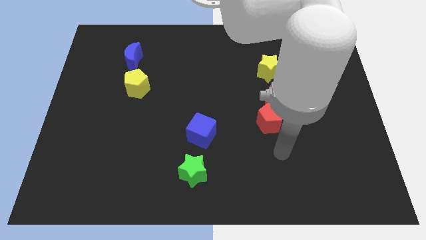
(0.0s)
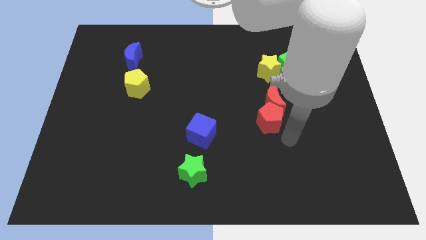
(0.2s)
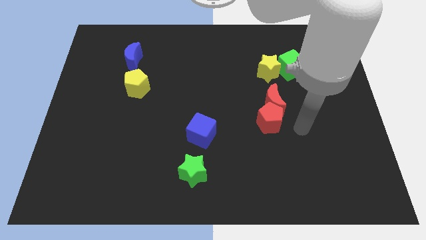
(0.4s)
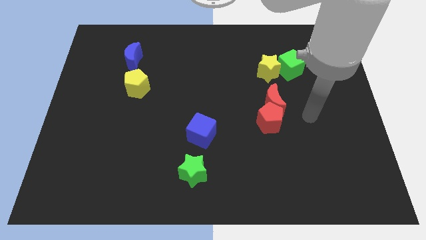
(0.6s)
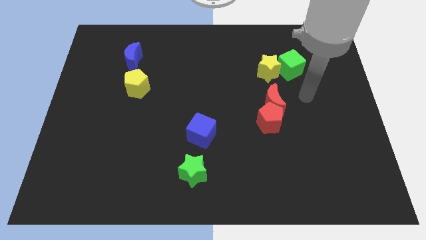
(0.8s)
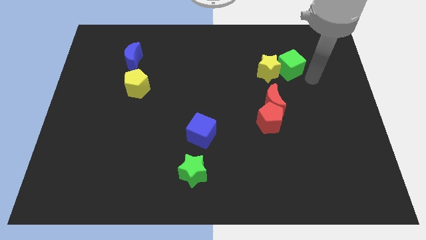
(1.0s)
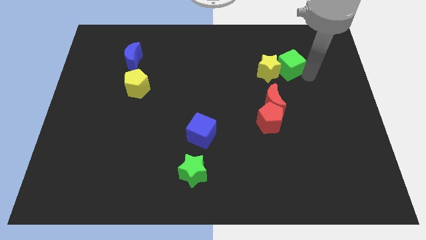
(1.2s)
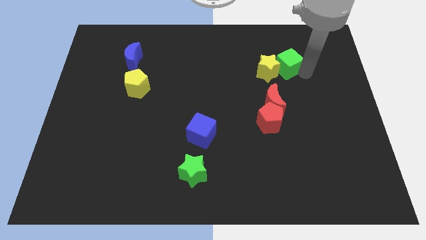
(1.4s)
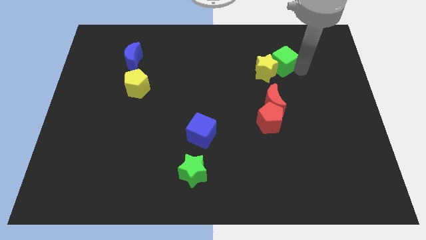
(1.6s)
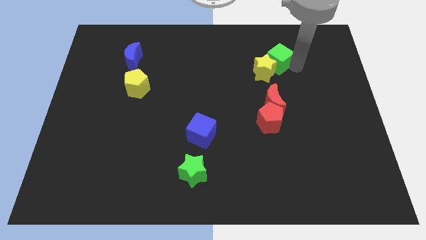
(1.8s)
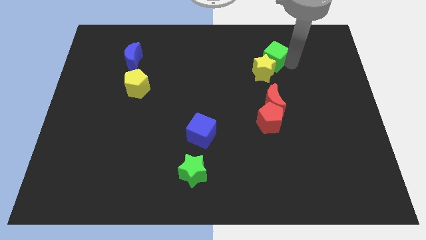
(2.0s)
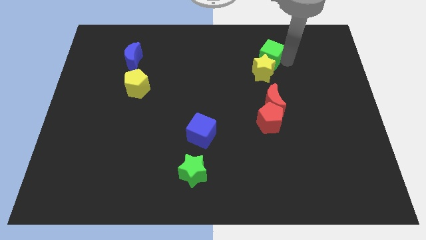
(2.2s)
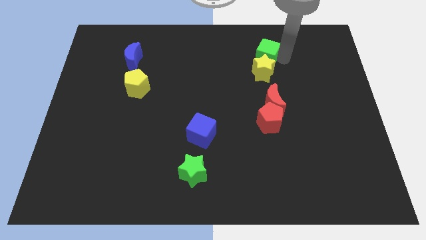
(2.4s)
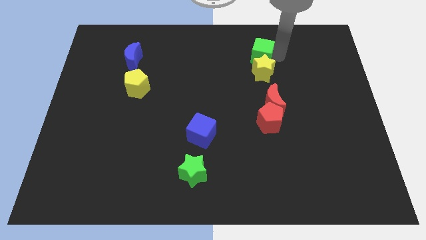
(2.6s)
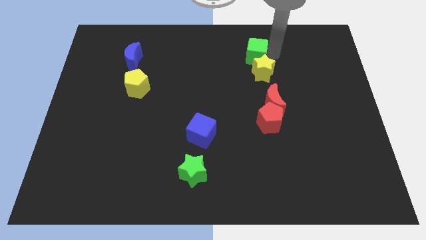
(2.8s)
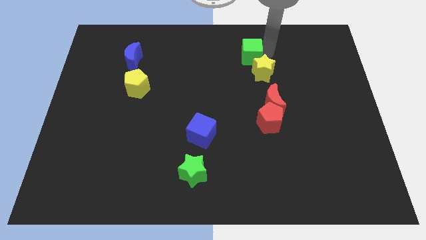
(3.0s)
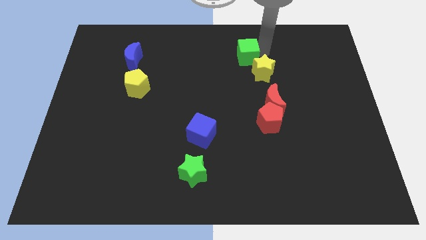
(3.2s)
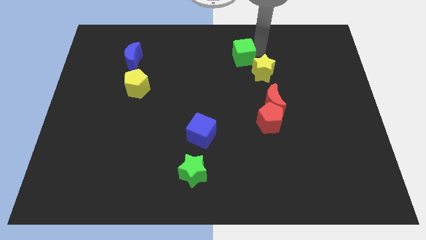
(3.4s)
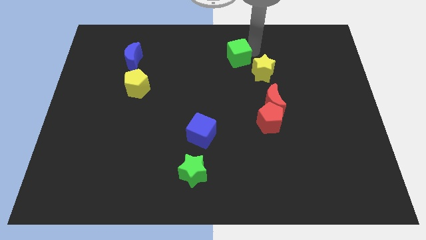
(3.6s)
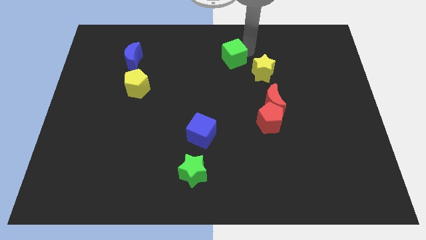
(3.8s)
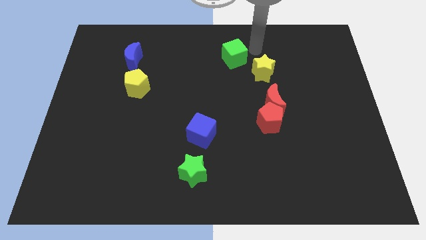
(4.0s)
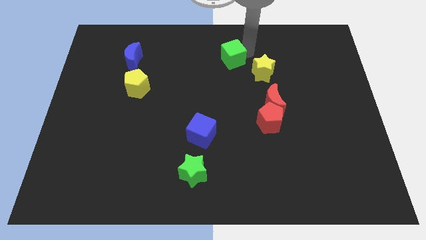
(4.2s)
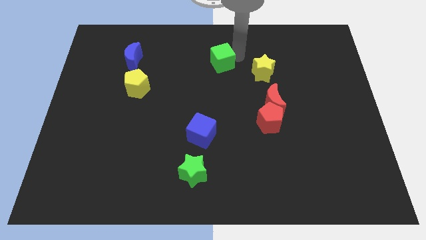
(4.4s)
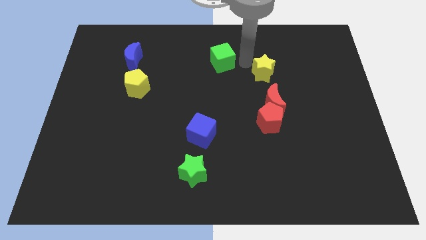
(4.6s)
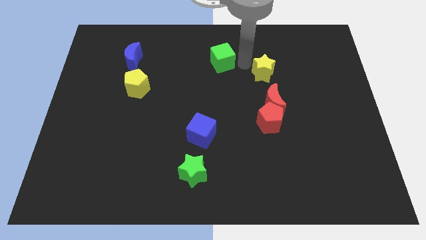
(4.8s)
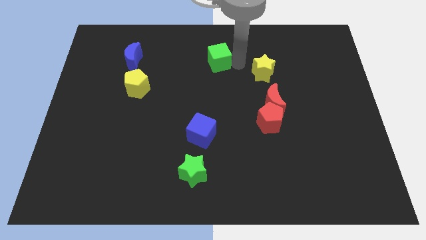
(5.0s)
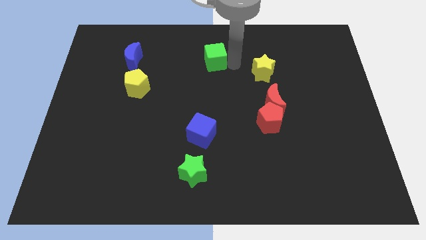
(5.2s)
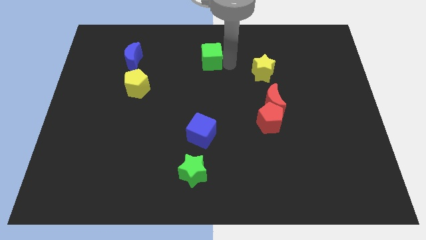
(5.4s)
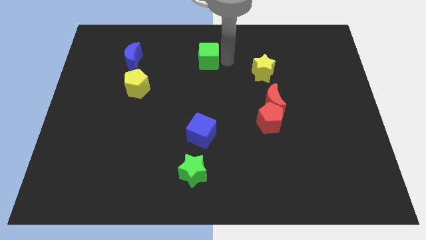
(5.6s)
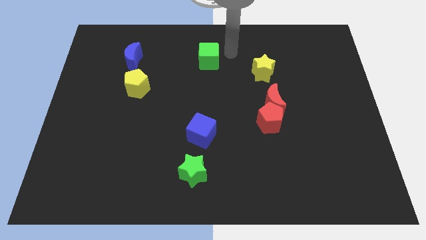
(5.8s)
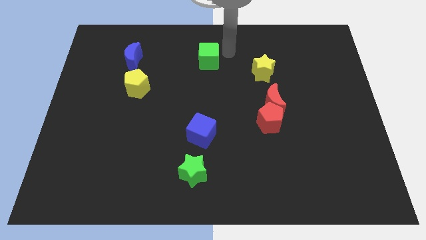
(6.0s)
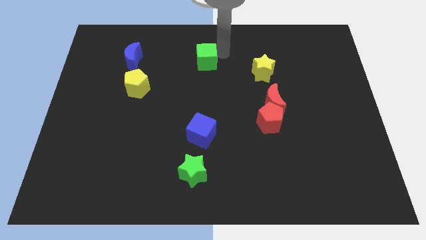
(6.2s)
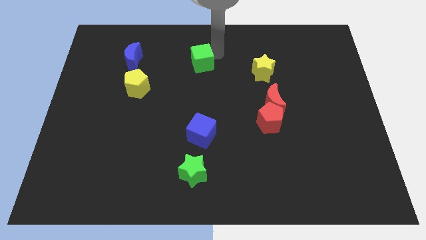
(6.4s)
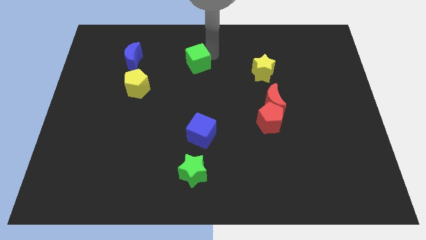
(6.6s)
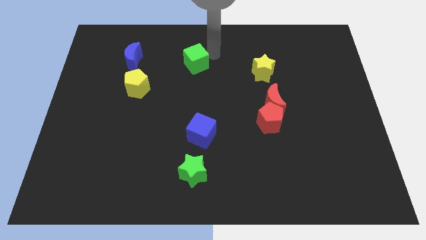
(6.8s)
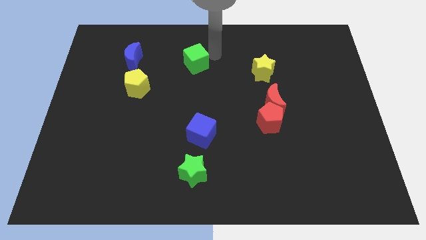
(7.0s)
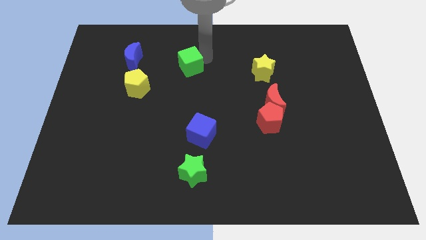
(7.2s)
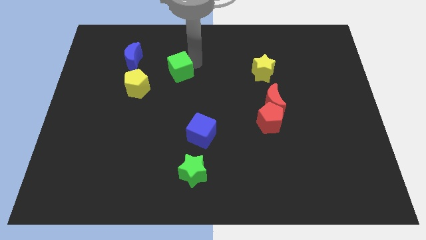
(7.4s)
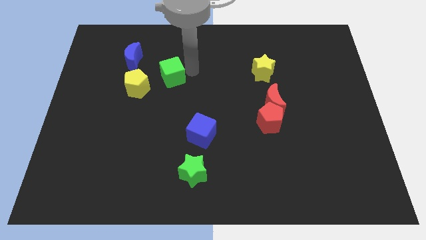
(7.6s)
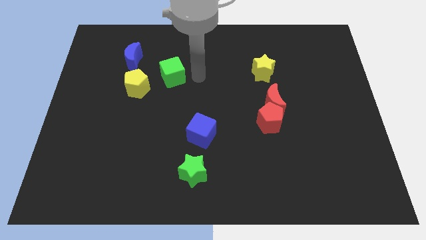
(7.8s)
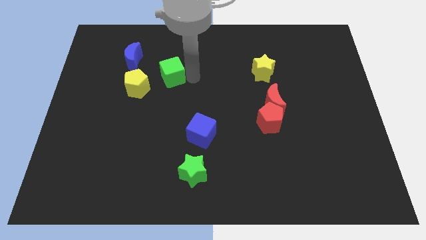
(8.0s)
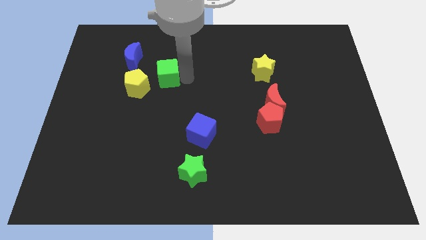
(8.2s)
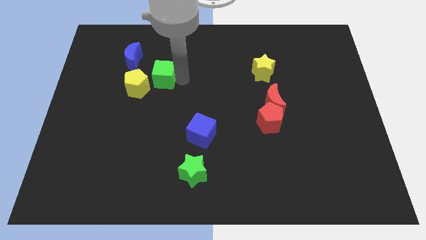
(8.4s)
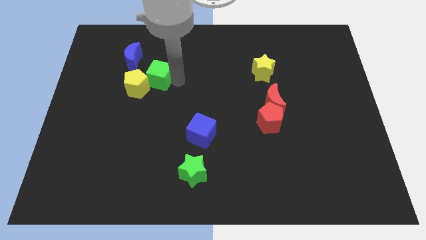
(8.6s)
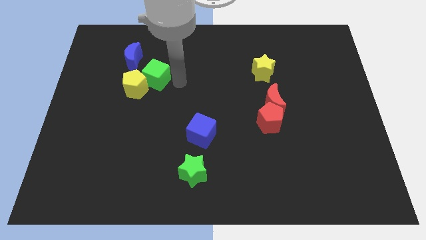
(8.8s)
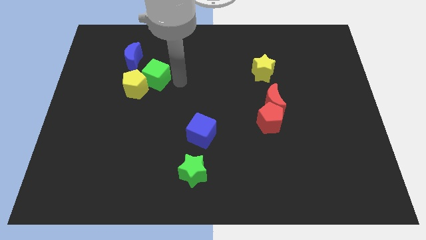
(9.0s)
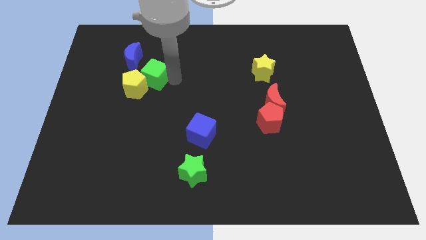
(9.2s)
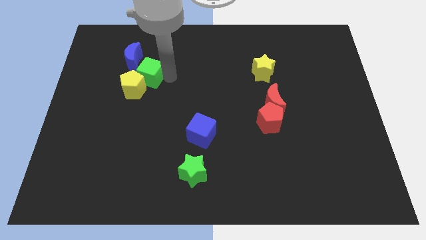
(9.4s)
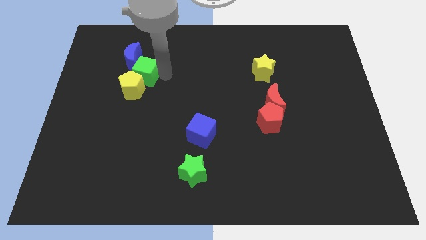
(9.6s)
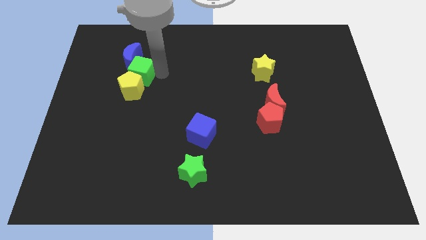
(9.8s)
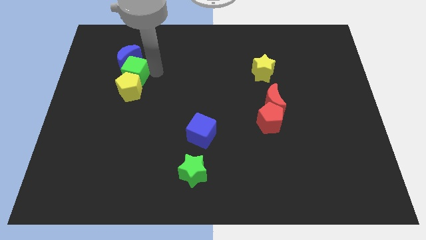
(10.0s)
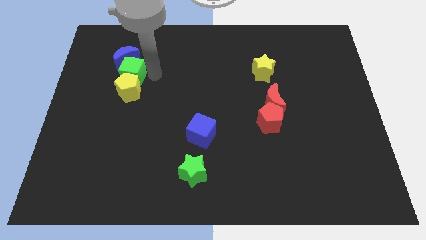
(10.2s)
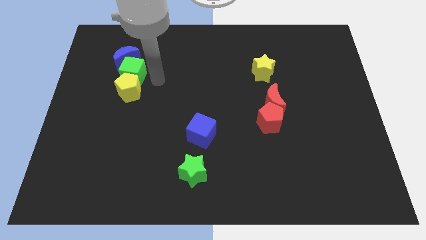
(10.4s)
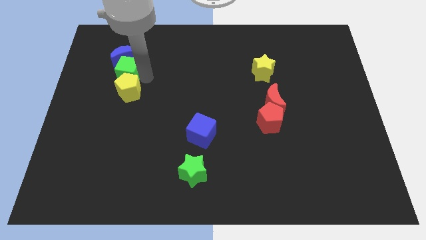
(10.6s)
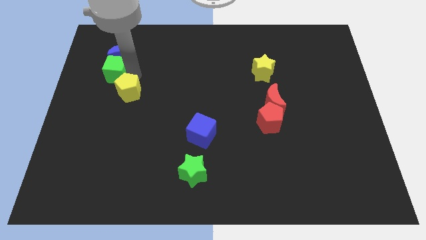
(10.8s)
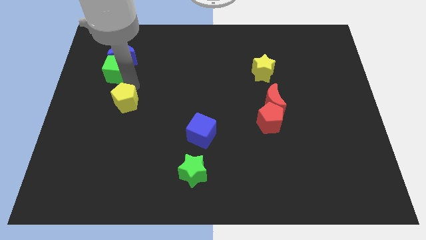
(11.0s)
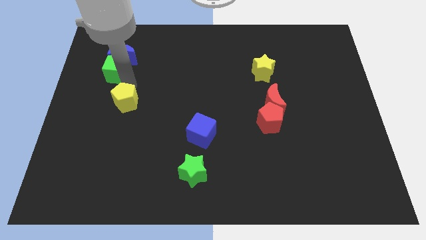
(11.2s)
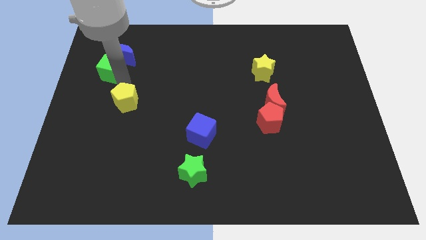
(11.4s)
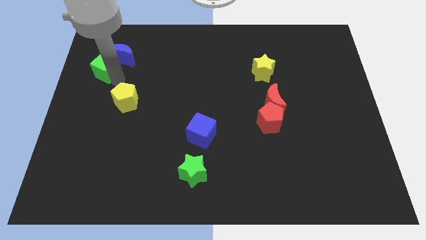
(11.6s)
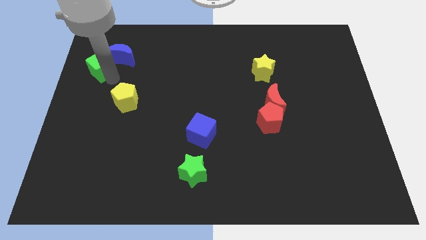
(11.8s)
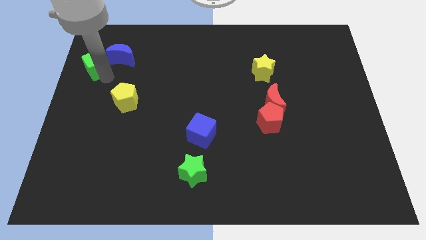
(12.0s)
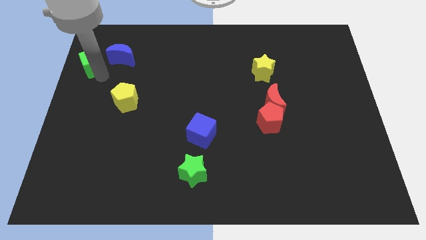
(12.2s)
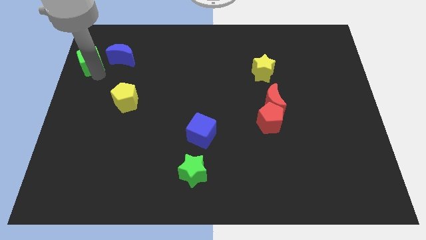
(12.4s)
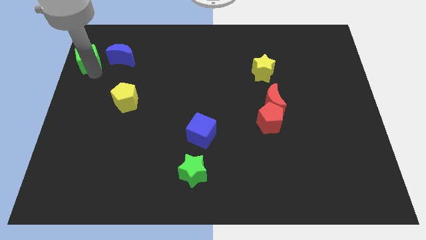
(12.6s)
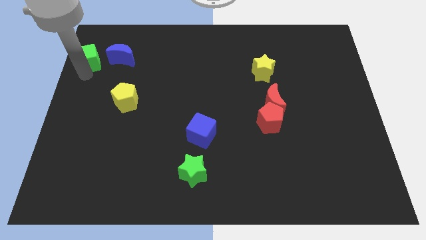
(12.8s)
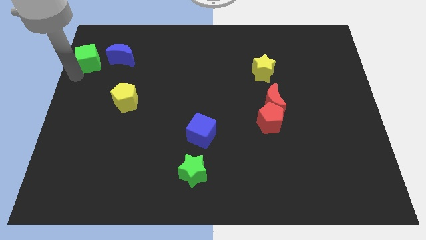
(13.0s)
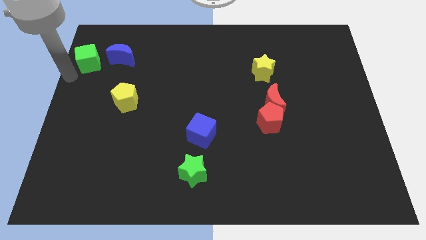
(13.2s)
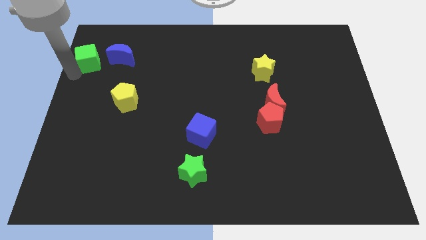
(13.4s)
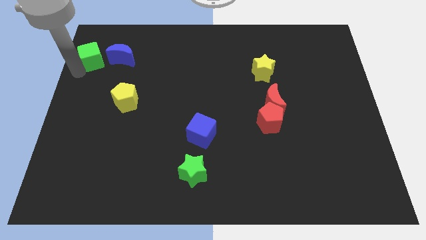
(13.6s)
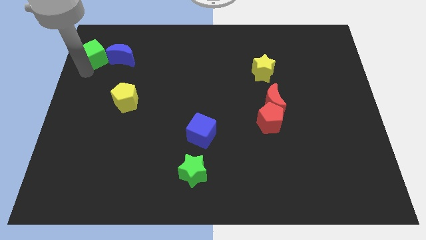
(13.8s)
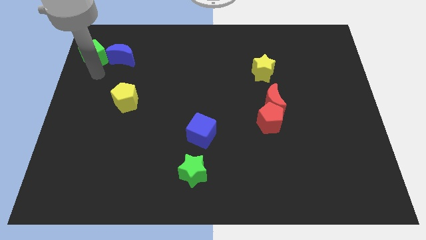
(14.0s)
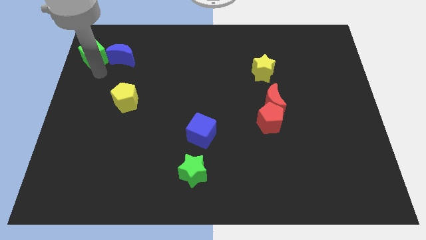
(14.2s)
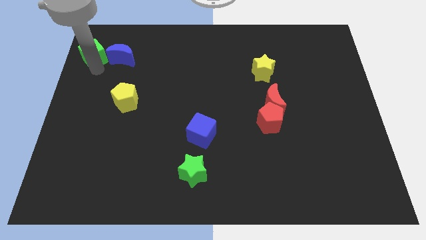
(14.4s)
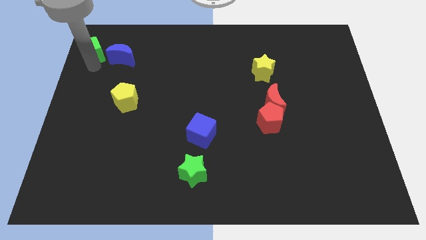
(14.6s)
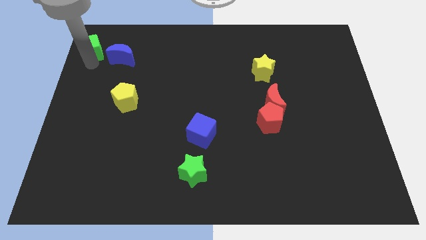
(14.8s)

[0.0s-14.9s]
put the green cube to the top left of the board
